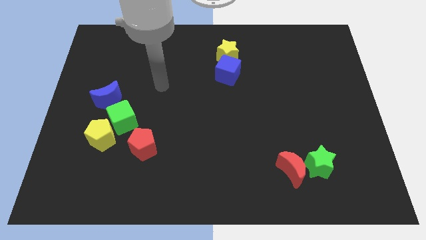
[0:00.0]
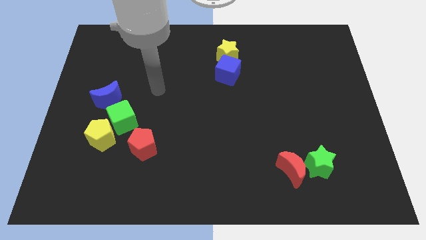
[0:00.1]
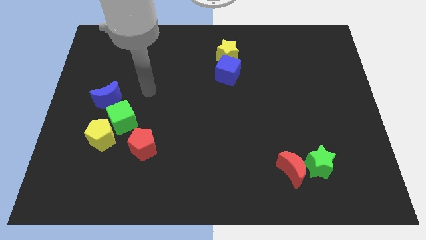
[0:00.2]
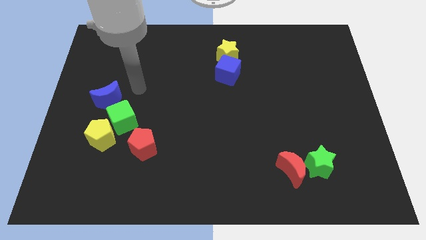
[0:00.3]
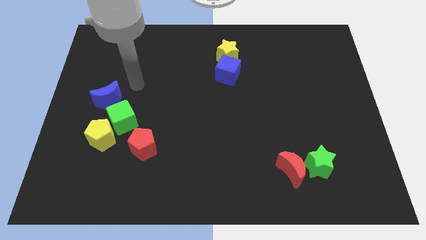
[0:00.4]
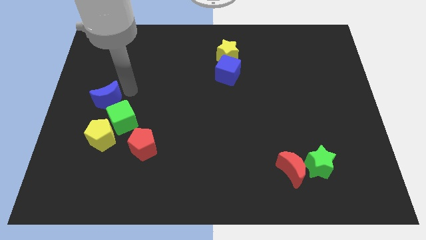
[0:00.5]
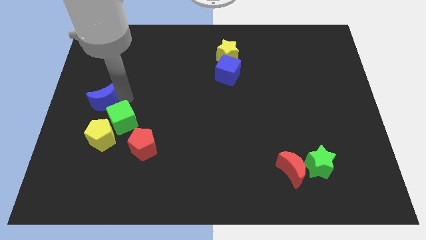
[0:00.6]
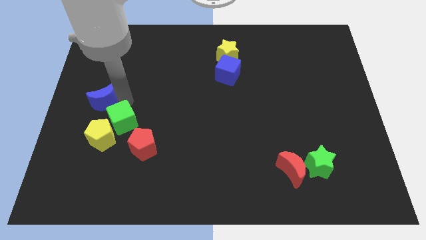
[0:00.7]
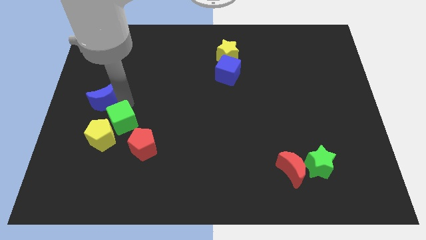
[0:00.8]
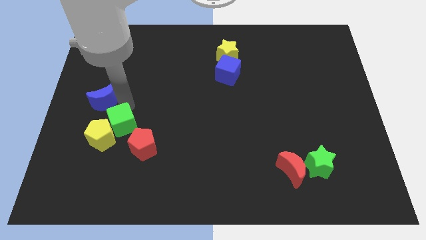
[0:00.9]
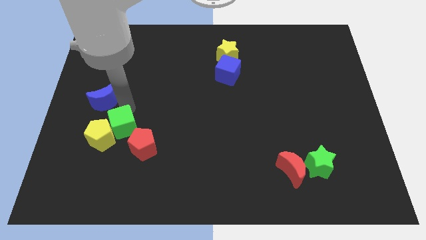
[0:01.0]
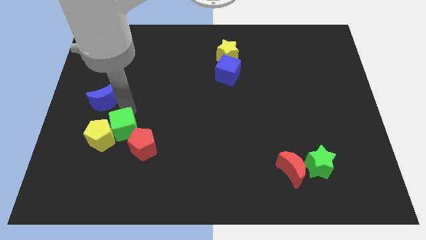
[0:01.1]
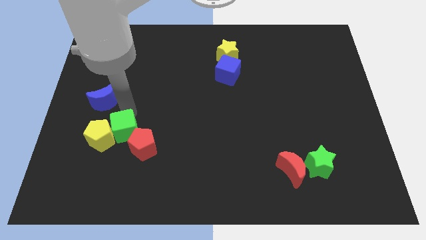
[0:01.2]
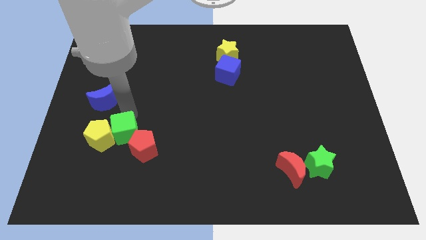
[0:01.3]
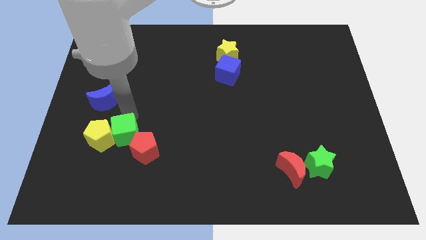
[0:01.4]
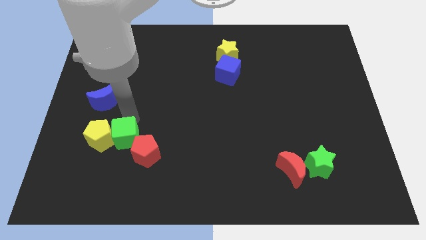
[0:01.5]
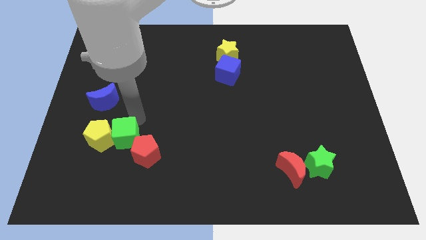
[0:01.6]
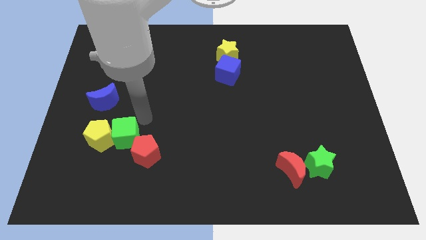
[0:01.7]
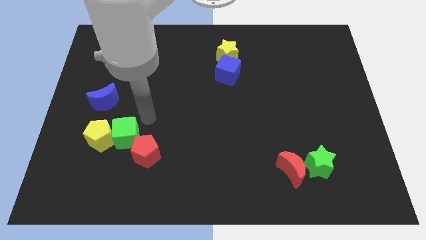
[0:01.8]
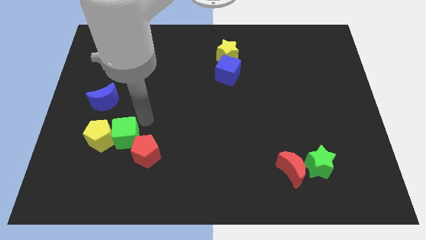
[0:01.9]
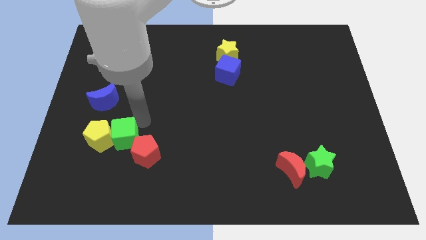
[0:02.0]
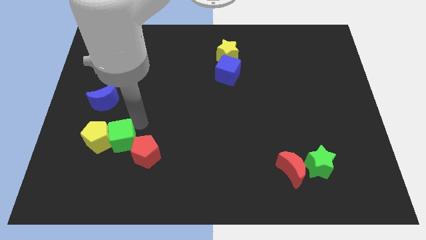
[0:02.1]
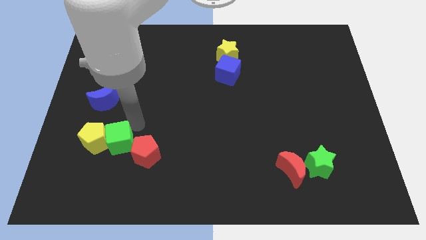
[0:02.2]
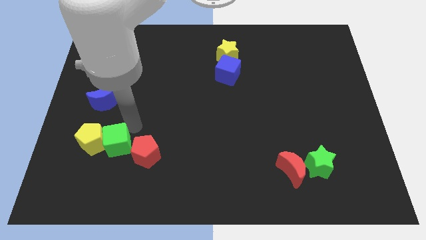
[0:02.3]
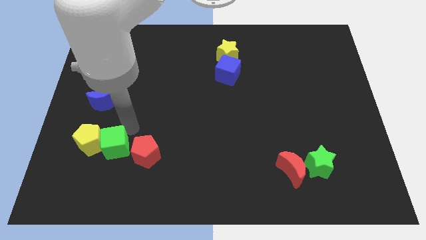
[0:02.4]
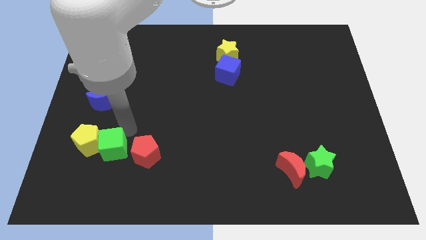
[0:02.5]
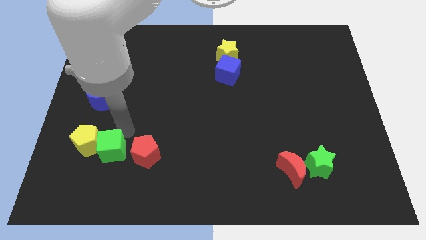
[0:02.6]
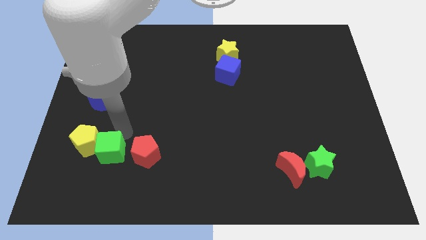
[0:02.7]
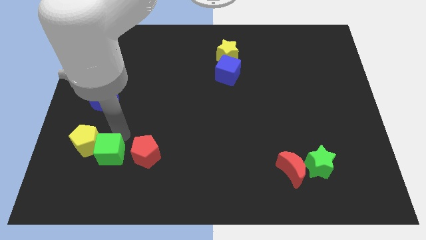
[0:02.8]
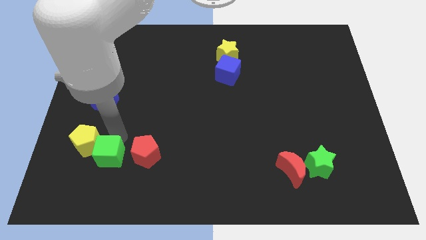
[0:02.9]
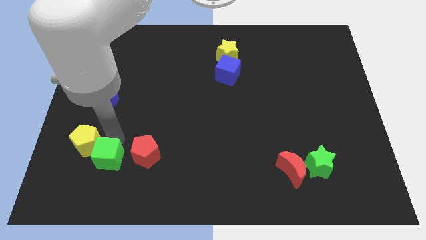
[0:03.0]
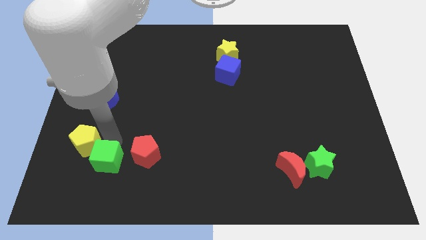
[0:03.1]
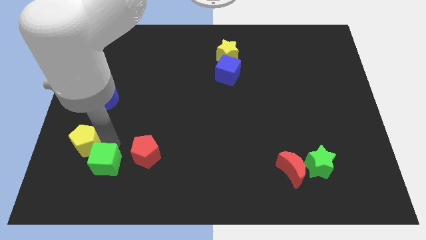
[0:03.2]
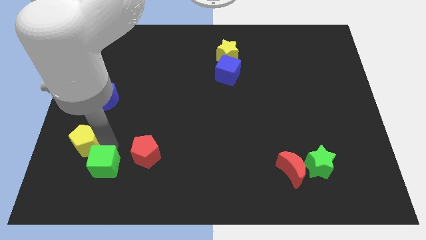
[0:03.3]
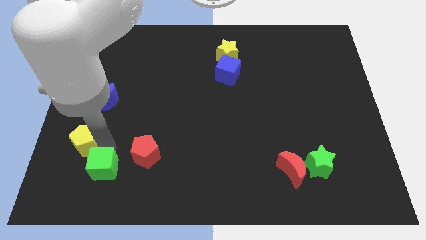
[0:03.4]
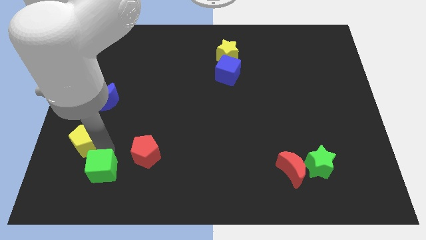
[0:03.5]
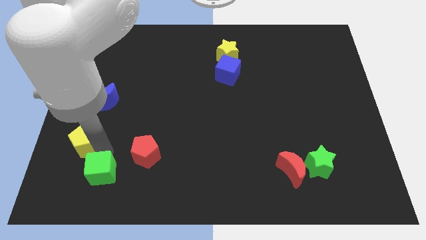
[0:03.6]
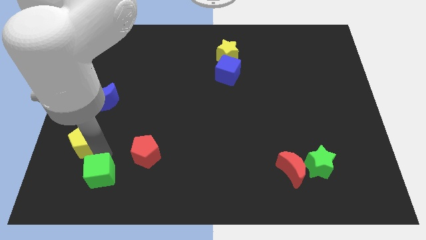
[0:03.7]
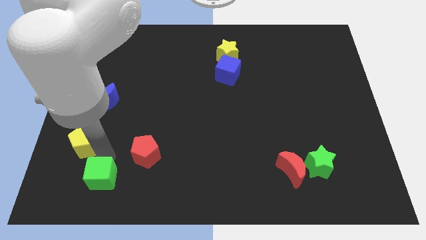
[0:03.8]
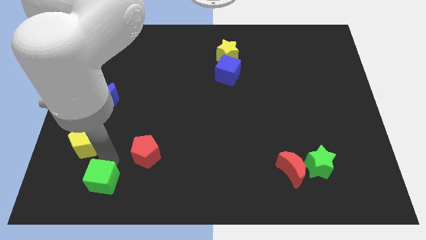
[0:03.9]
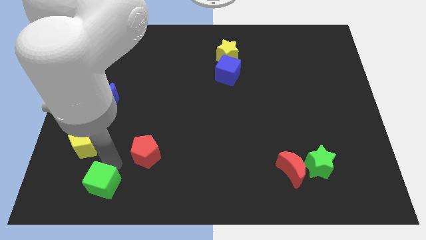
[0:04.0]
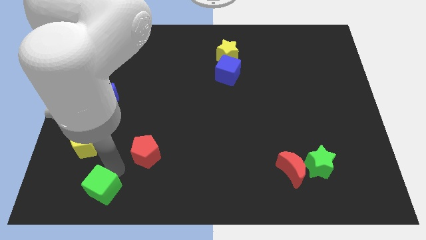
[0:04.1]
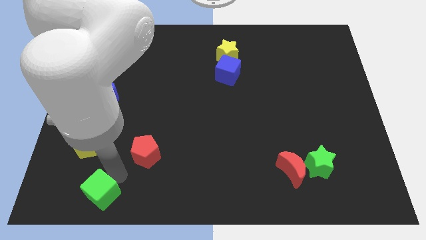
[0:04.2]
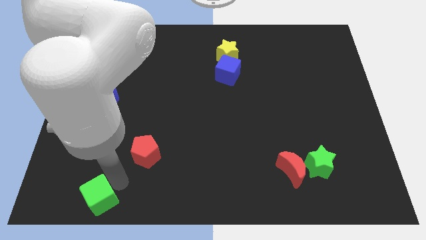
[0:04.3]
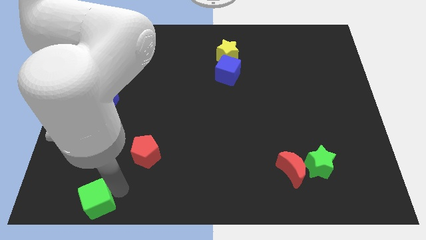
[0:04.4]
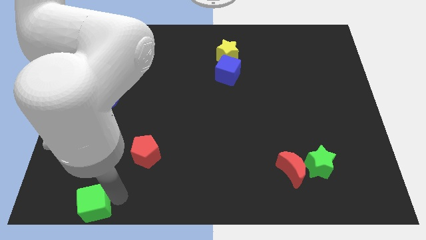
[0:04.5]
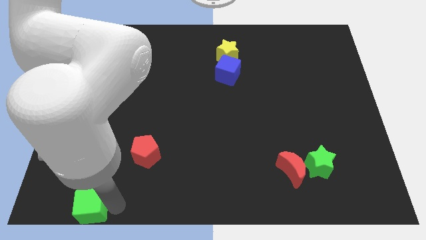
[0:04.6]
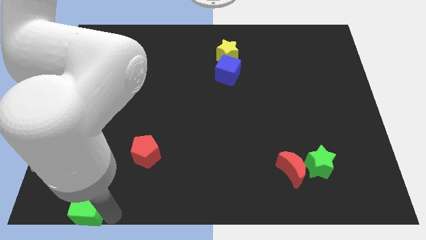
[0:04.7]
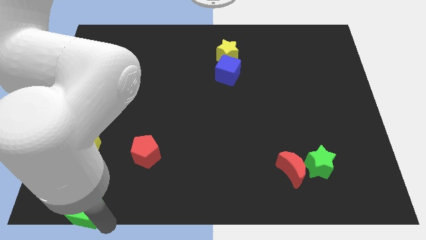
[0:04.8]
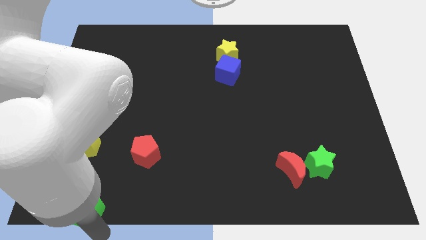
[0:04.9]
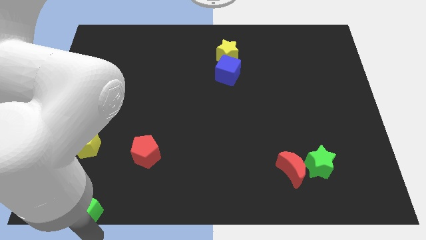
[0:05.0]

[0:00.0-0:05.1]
push the green cube to the bottom left corner

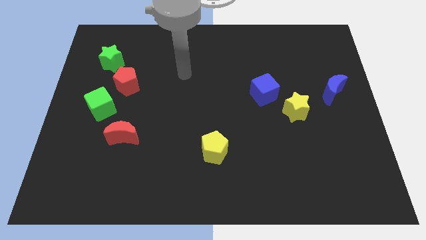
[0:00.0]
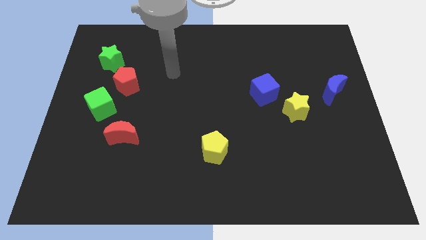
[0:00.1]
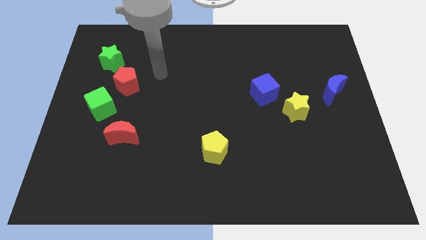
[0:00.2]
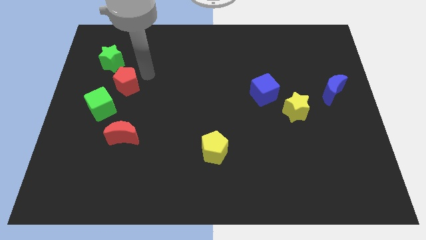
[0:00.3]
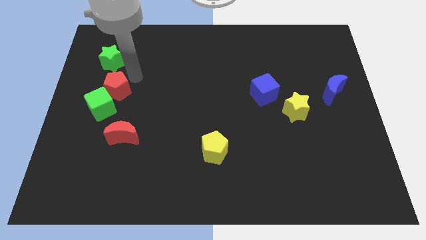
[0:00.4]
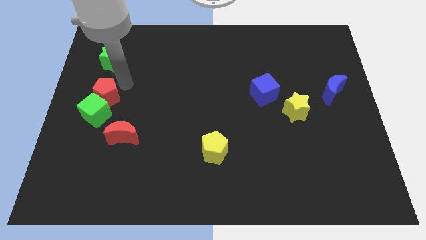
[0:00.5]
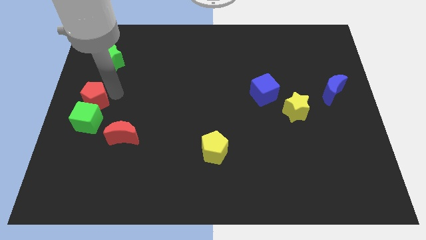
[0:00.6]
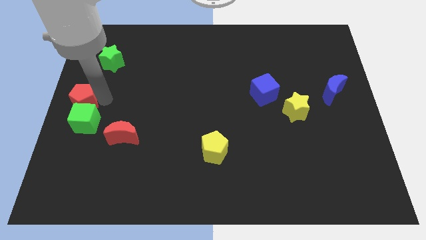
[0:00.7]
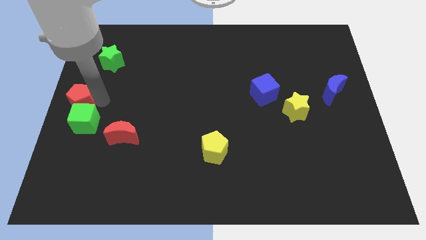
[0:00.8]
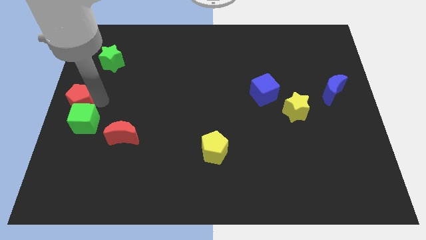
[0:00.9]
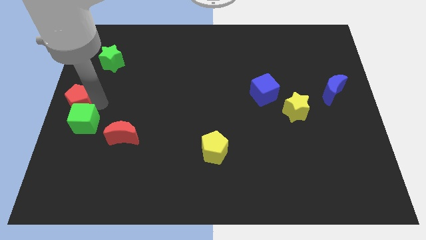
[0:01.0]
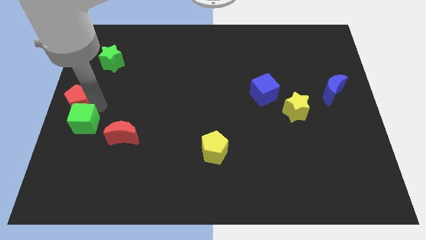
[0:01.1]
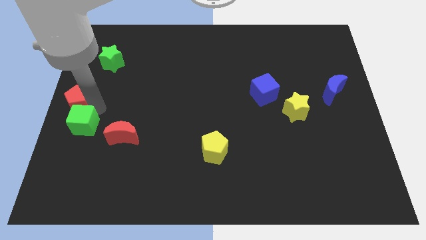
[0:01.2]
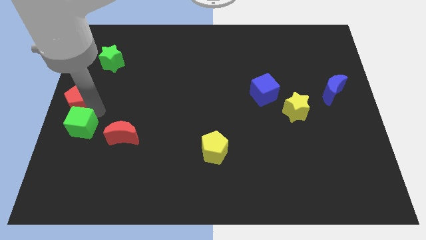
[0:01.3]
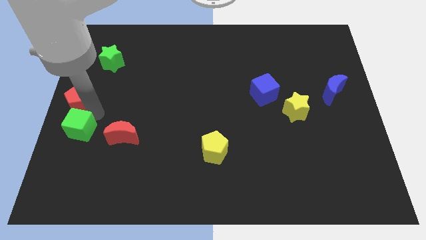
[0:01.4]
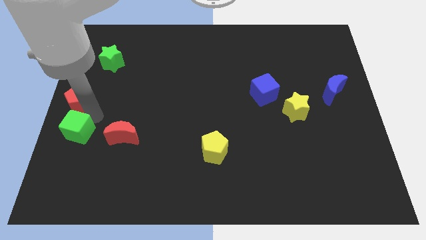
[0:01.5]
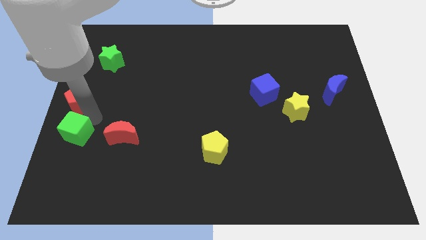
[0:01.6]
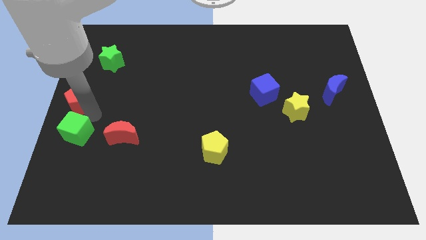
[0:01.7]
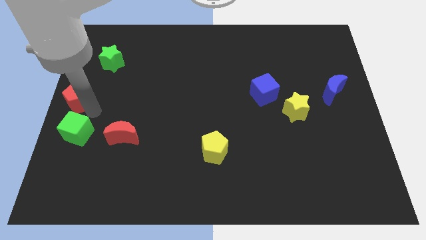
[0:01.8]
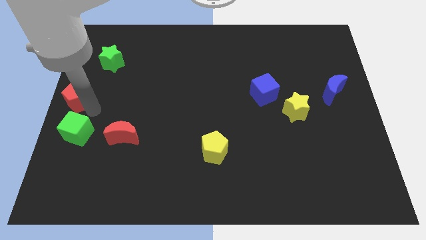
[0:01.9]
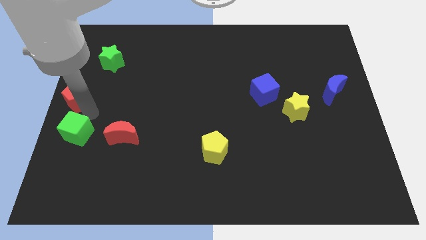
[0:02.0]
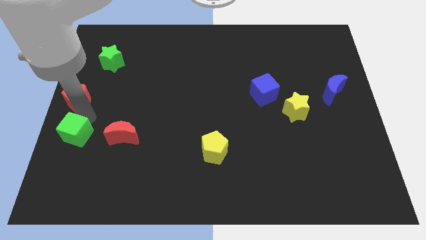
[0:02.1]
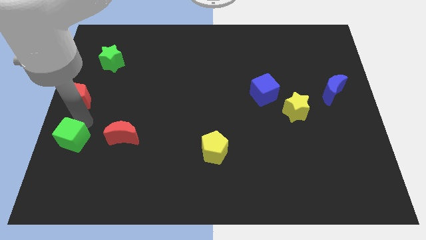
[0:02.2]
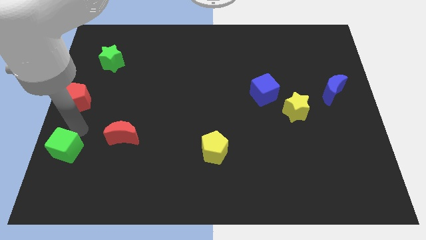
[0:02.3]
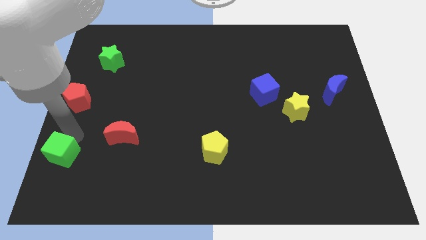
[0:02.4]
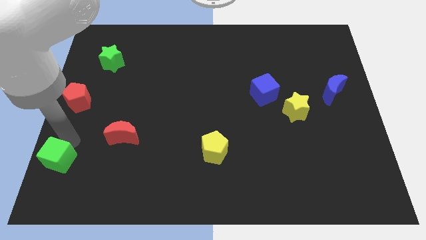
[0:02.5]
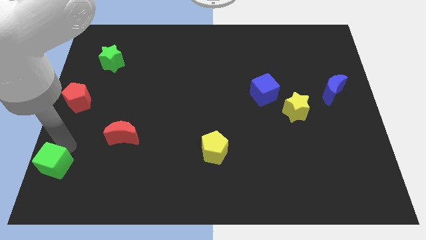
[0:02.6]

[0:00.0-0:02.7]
push the green cube to the lower left corner
